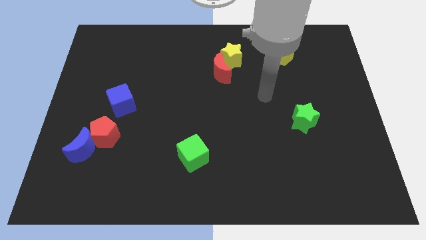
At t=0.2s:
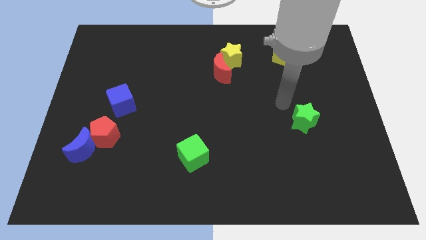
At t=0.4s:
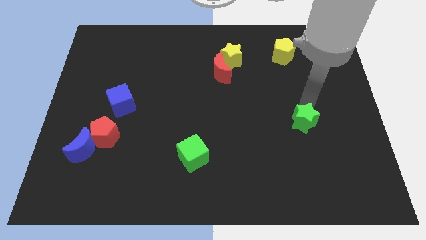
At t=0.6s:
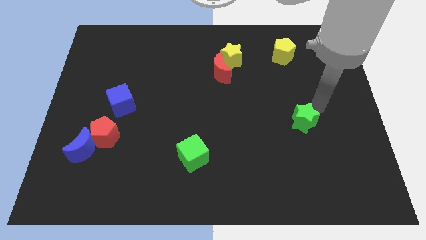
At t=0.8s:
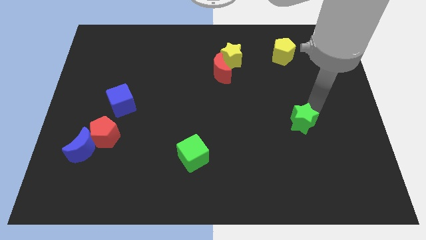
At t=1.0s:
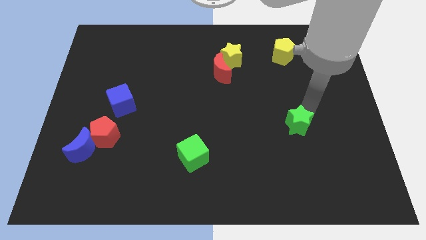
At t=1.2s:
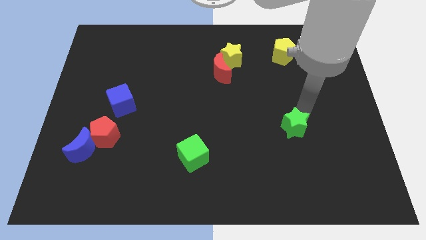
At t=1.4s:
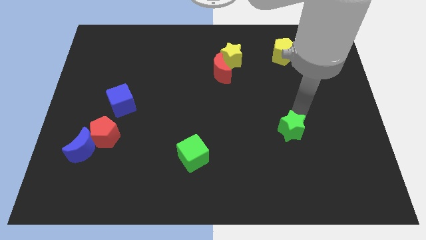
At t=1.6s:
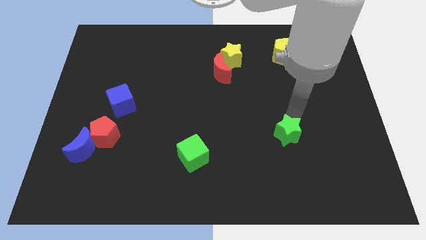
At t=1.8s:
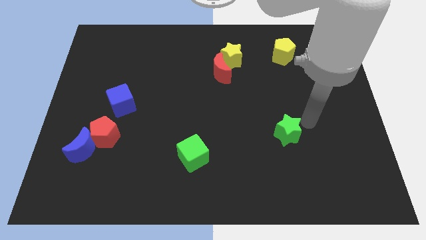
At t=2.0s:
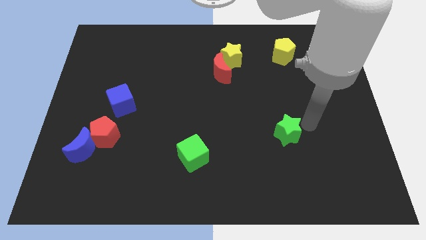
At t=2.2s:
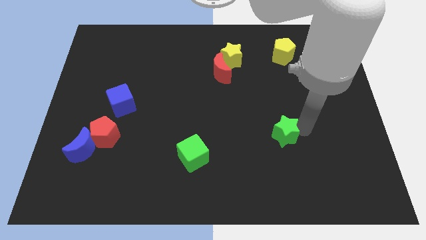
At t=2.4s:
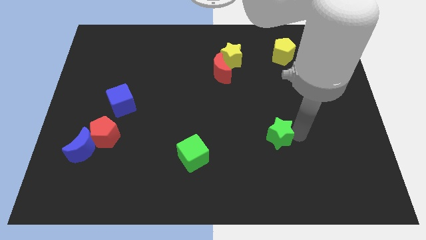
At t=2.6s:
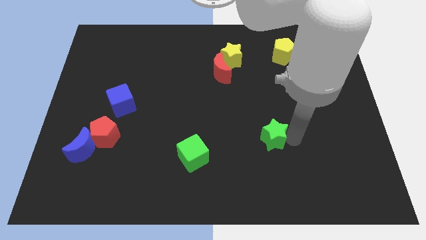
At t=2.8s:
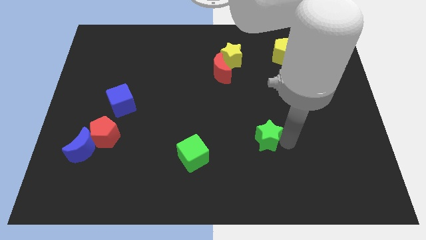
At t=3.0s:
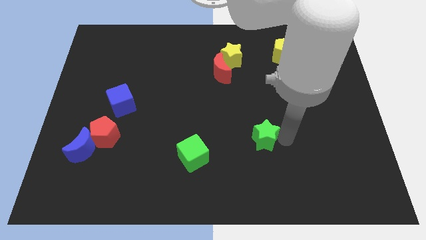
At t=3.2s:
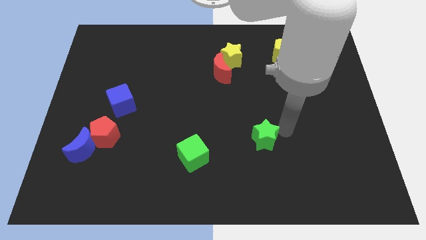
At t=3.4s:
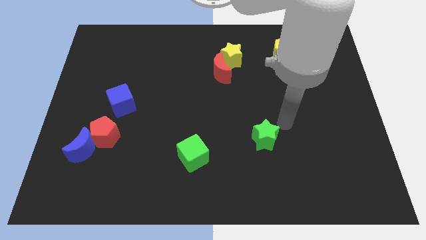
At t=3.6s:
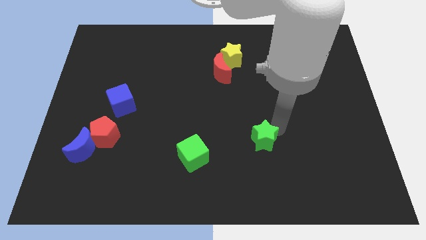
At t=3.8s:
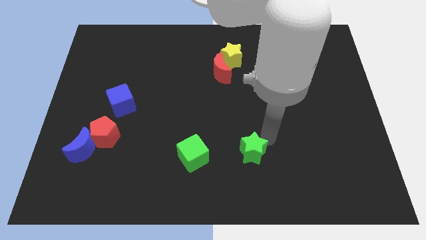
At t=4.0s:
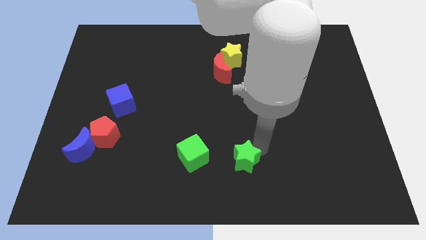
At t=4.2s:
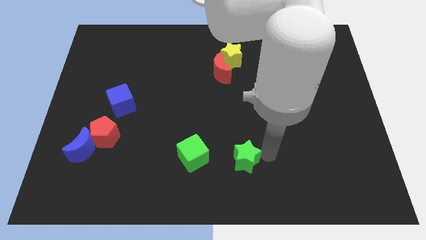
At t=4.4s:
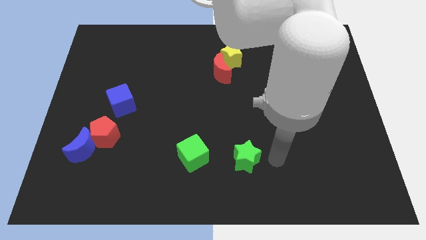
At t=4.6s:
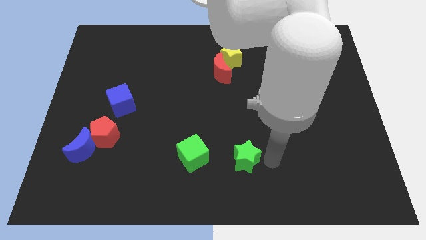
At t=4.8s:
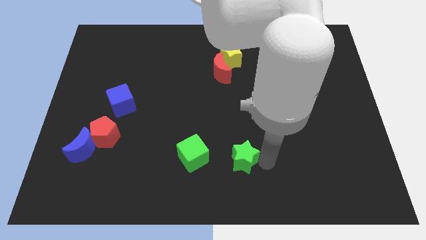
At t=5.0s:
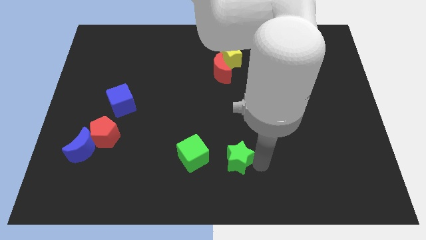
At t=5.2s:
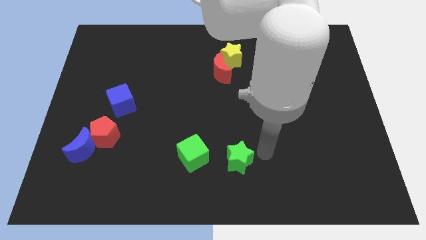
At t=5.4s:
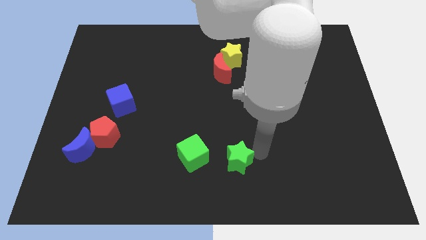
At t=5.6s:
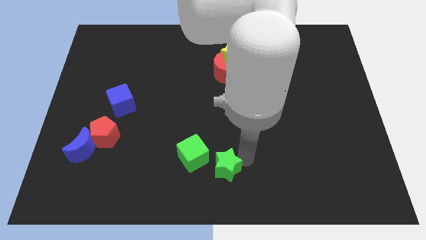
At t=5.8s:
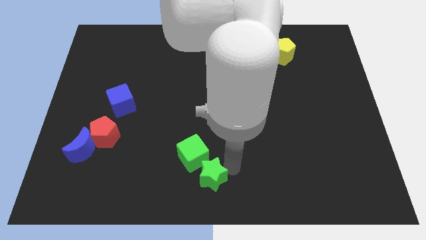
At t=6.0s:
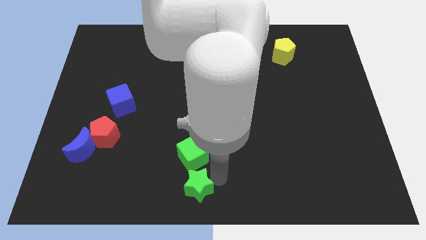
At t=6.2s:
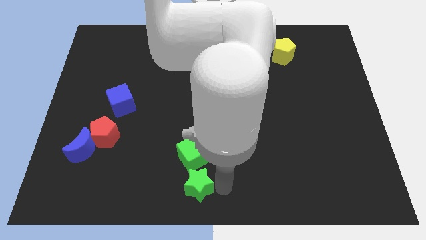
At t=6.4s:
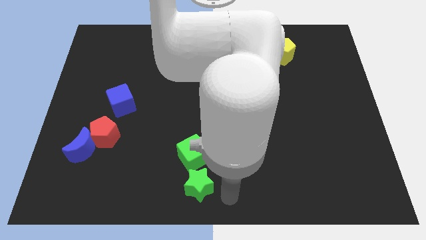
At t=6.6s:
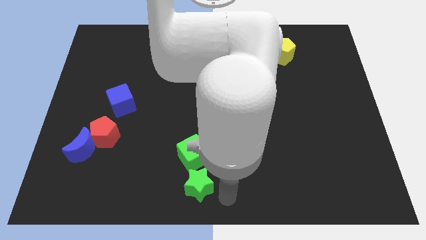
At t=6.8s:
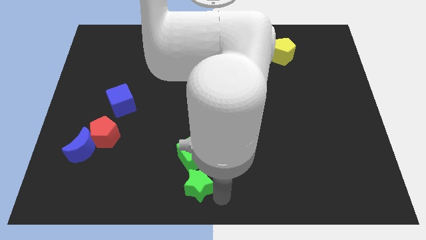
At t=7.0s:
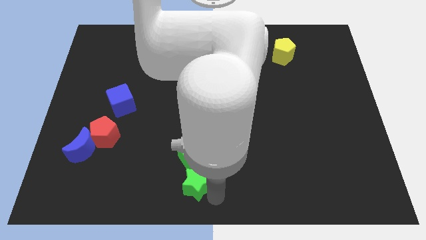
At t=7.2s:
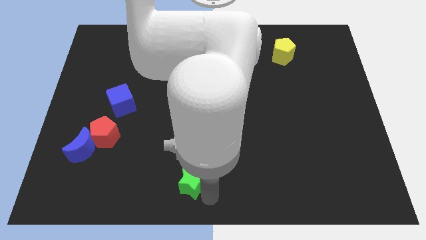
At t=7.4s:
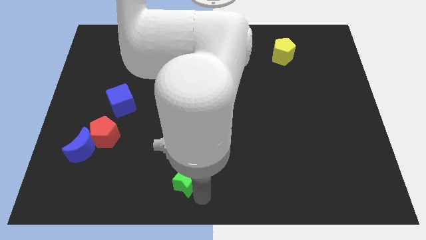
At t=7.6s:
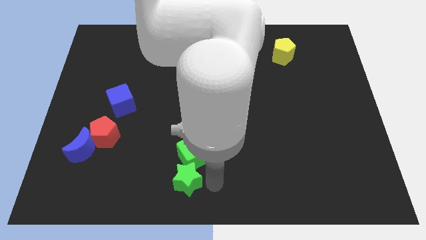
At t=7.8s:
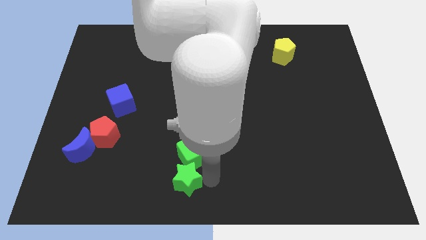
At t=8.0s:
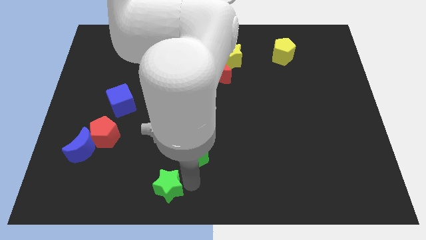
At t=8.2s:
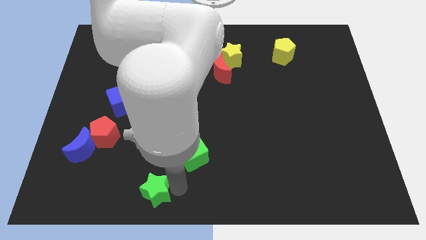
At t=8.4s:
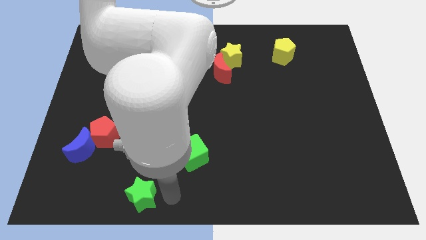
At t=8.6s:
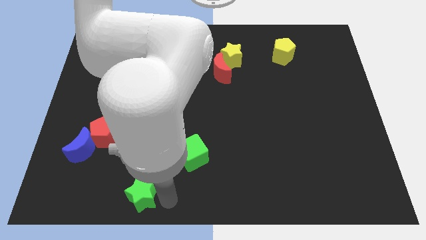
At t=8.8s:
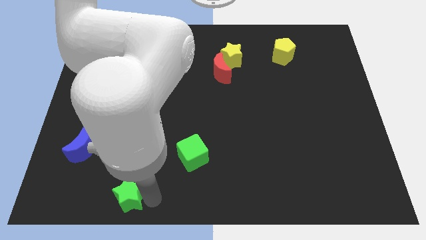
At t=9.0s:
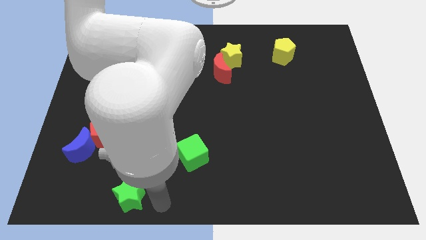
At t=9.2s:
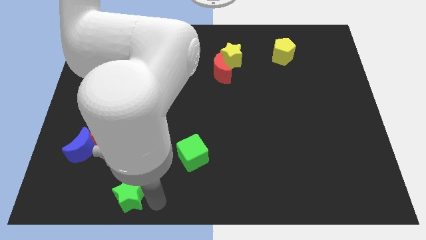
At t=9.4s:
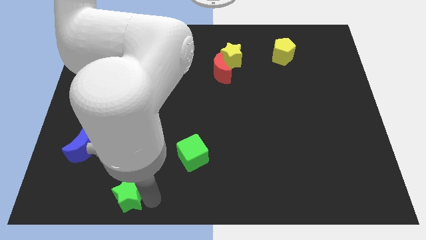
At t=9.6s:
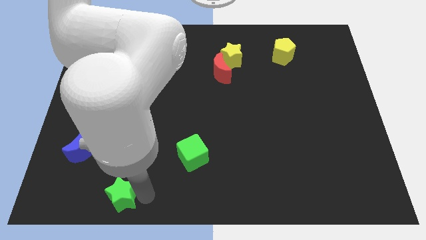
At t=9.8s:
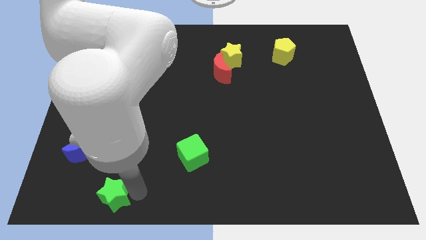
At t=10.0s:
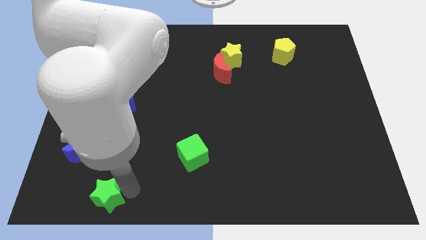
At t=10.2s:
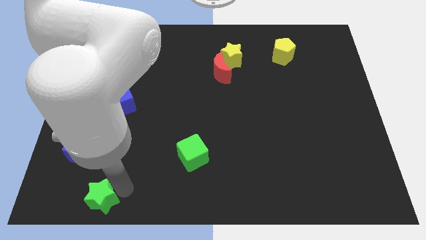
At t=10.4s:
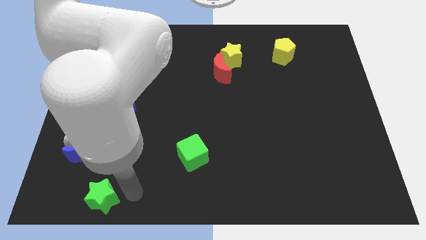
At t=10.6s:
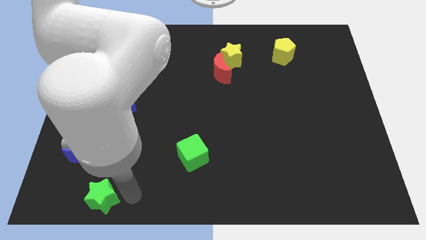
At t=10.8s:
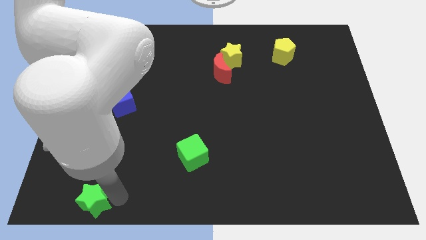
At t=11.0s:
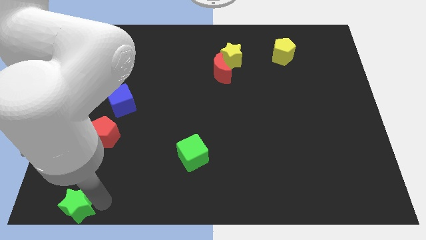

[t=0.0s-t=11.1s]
push the green star to the bottom left corner

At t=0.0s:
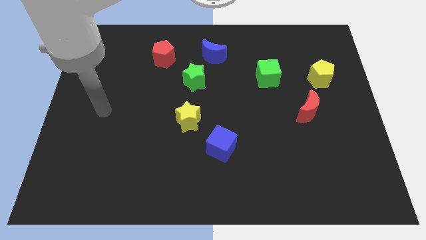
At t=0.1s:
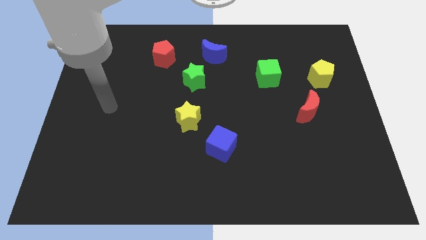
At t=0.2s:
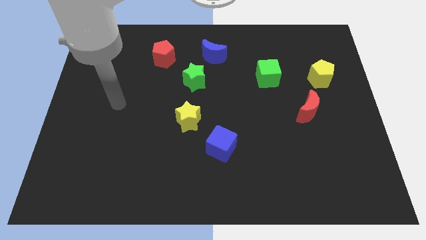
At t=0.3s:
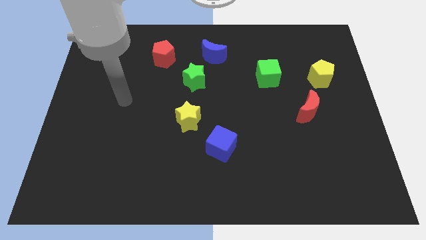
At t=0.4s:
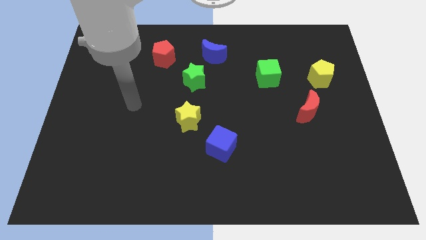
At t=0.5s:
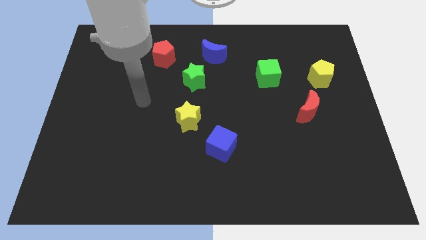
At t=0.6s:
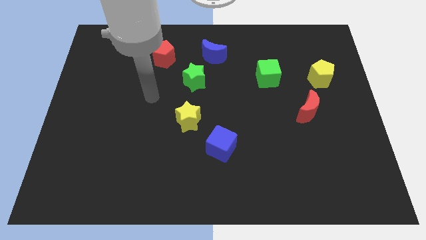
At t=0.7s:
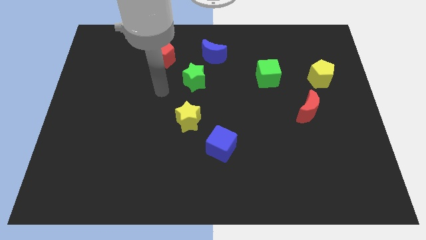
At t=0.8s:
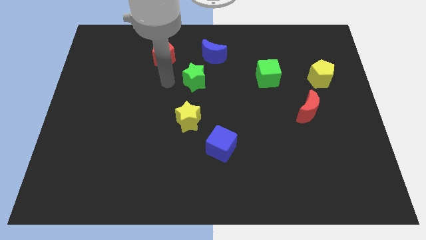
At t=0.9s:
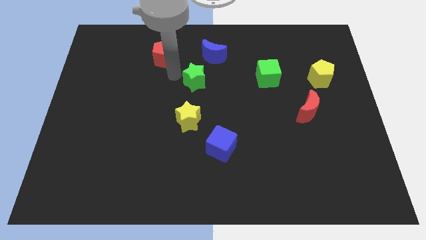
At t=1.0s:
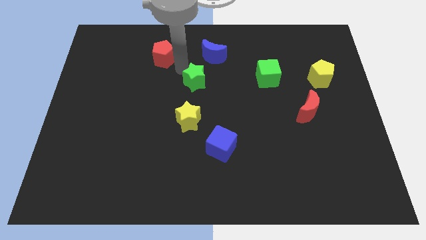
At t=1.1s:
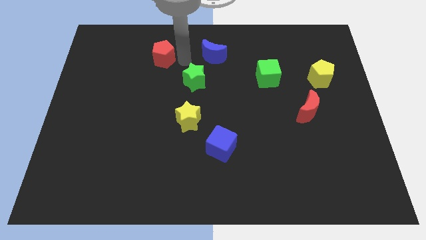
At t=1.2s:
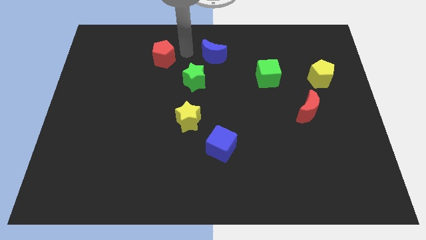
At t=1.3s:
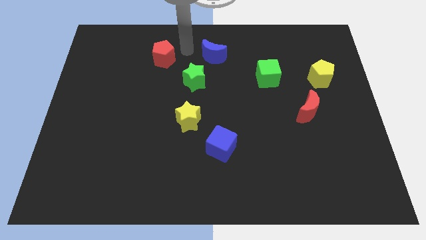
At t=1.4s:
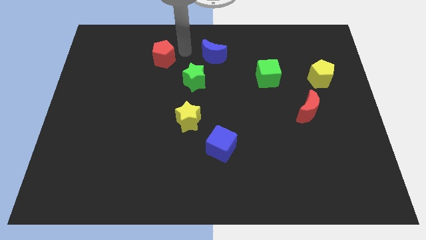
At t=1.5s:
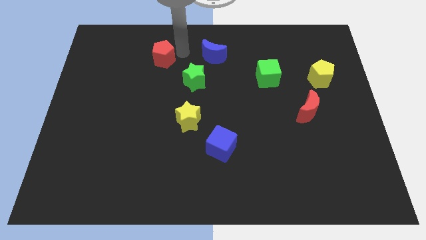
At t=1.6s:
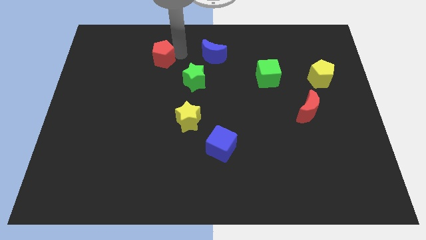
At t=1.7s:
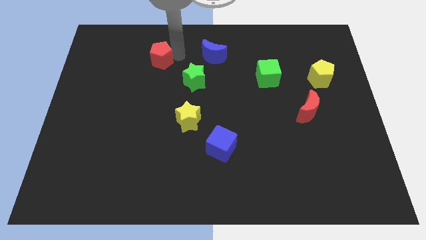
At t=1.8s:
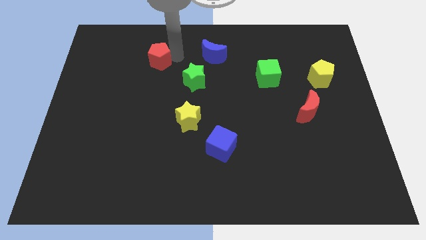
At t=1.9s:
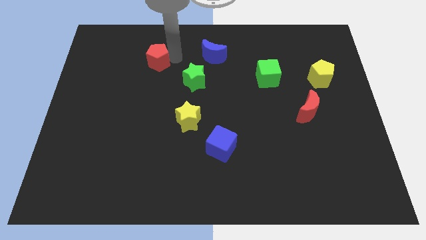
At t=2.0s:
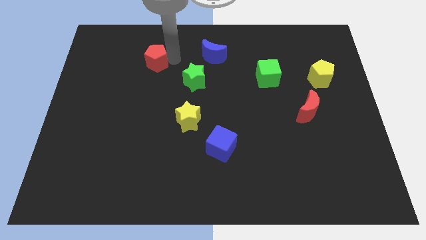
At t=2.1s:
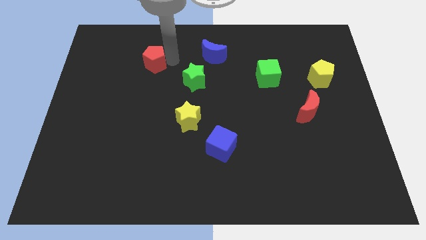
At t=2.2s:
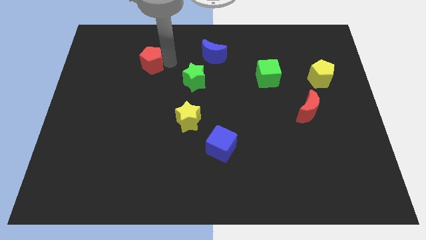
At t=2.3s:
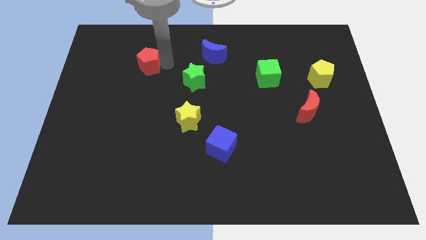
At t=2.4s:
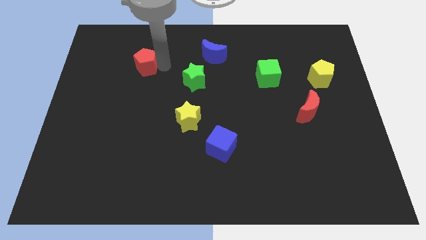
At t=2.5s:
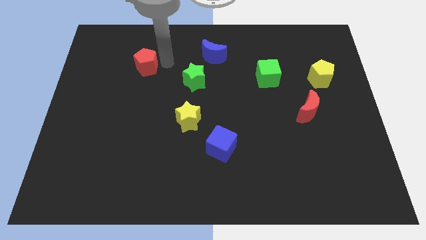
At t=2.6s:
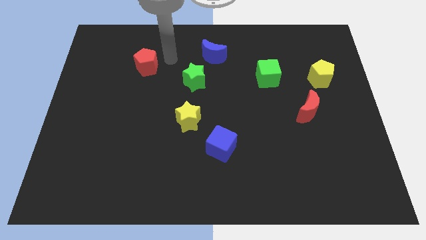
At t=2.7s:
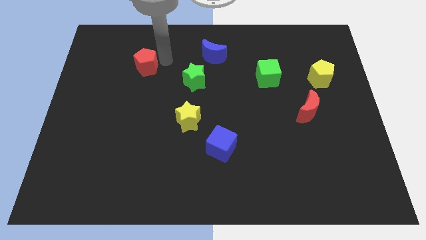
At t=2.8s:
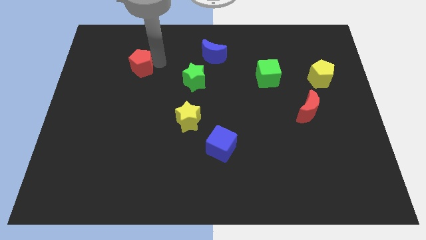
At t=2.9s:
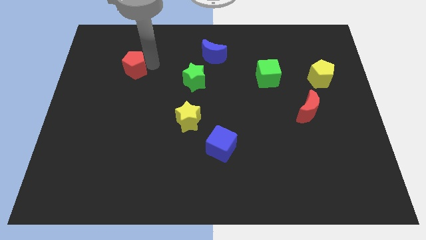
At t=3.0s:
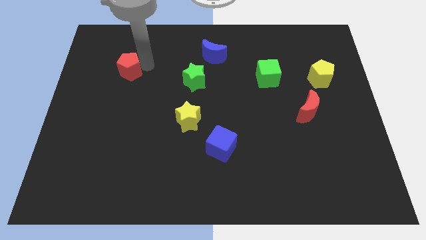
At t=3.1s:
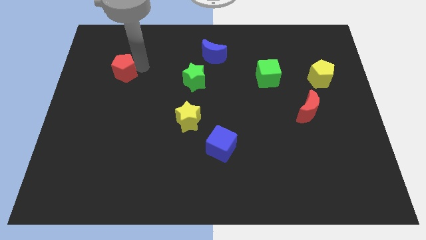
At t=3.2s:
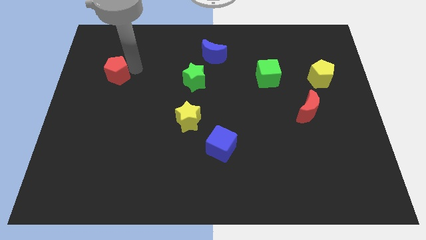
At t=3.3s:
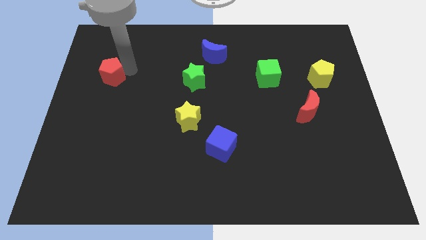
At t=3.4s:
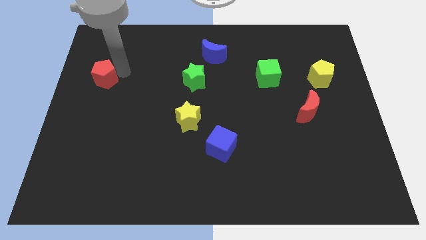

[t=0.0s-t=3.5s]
move the red pentagon to the left side of the board
